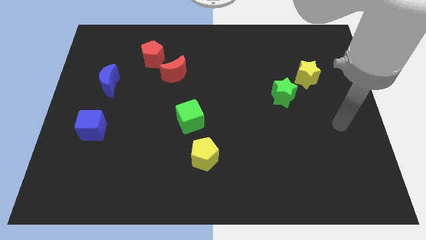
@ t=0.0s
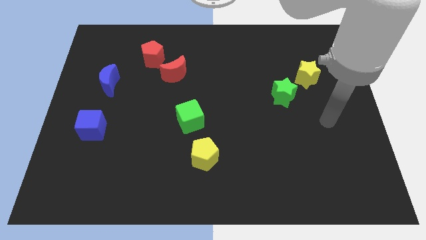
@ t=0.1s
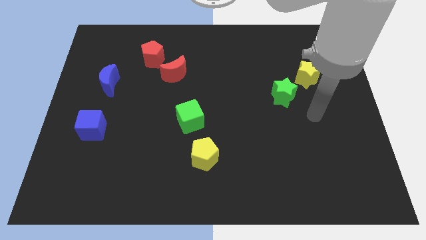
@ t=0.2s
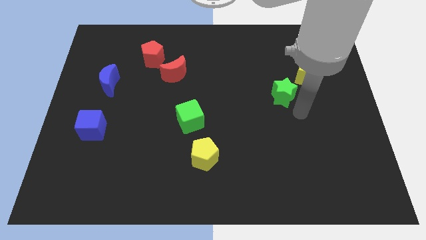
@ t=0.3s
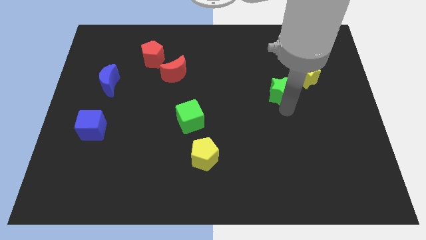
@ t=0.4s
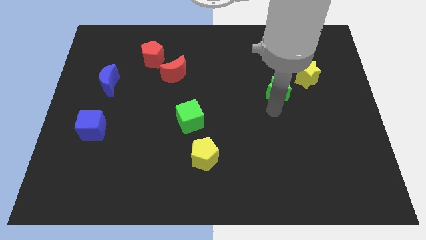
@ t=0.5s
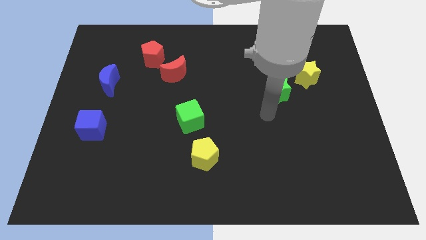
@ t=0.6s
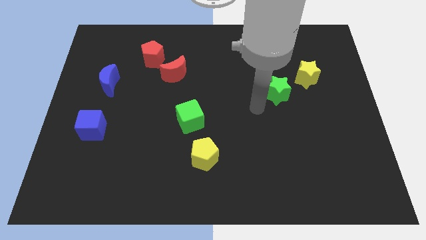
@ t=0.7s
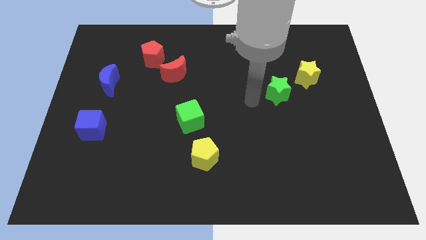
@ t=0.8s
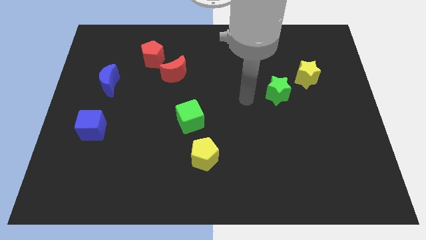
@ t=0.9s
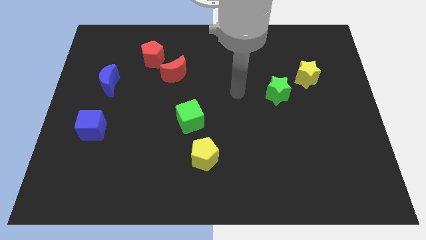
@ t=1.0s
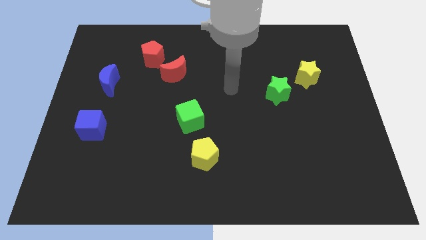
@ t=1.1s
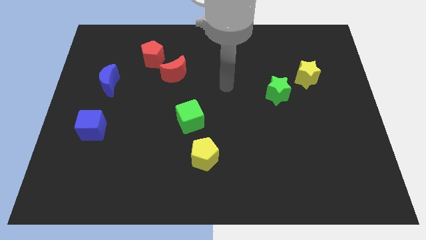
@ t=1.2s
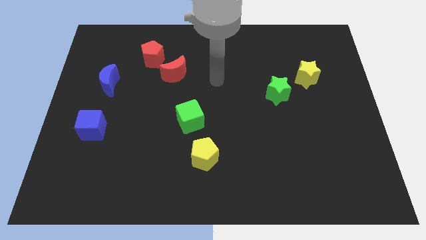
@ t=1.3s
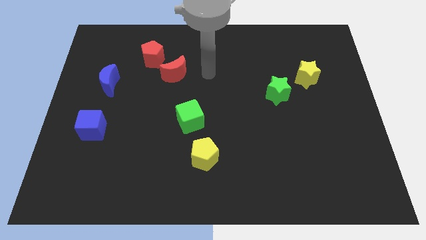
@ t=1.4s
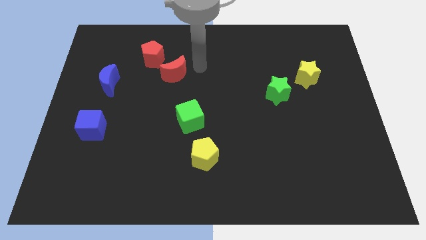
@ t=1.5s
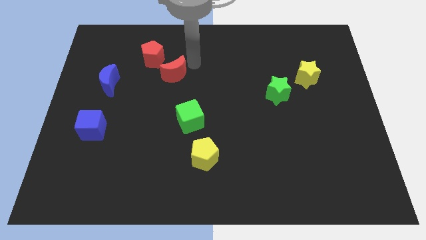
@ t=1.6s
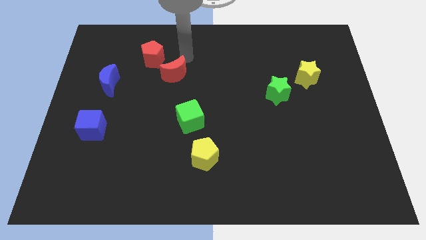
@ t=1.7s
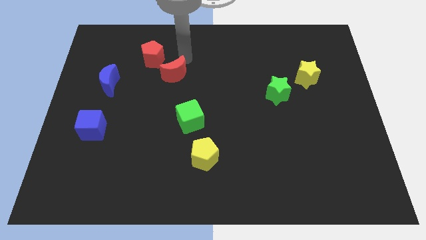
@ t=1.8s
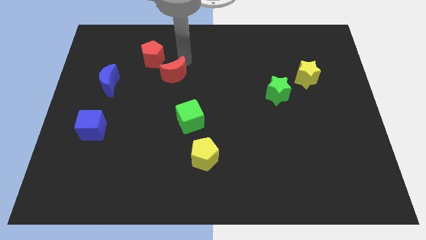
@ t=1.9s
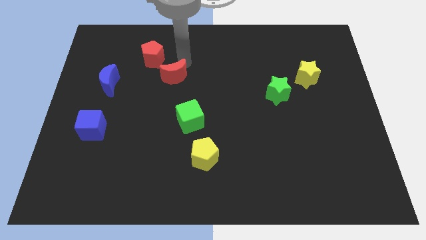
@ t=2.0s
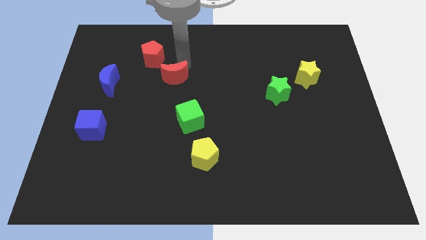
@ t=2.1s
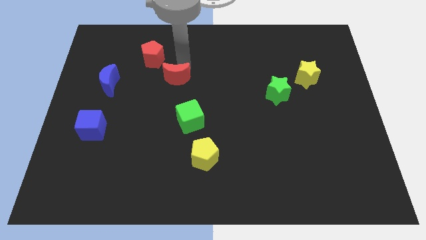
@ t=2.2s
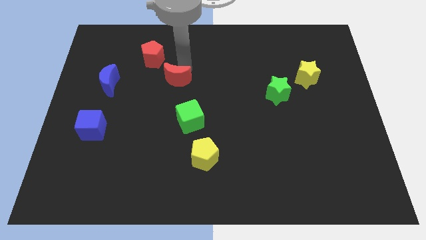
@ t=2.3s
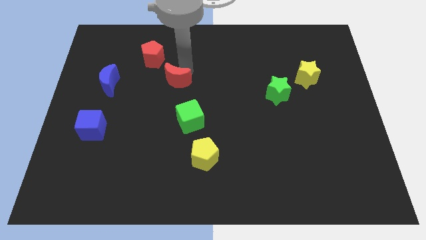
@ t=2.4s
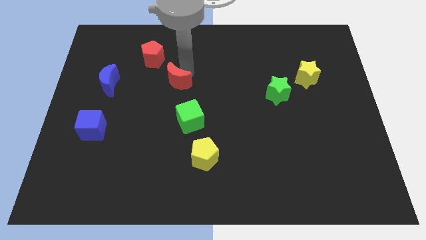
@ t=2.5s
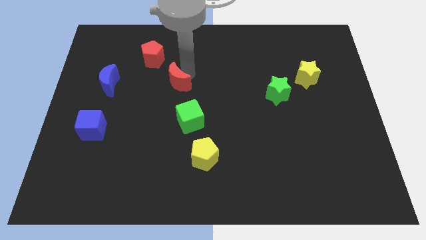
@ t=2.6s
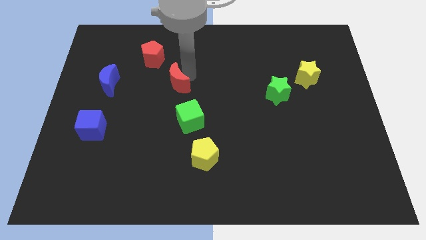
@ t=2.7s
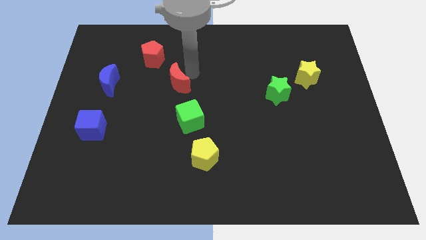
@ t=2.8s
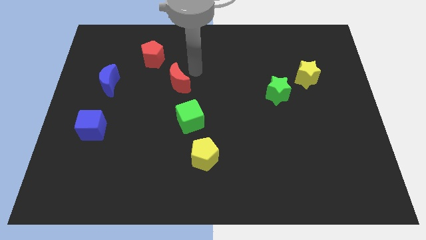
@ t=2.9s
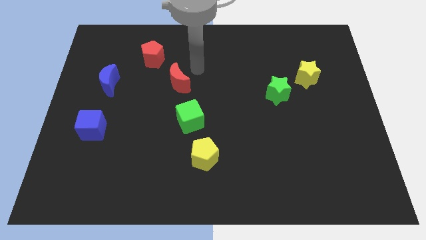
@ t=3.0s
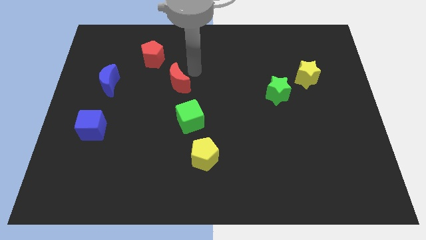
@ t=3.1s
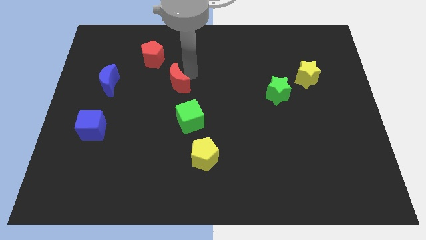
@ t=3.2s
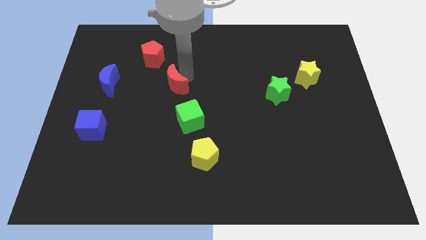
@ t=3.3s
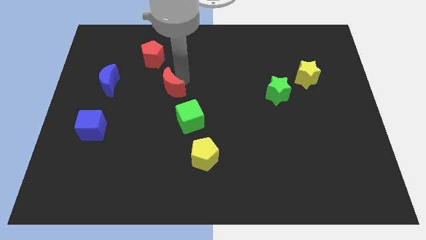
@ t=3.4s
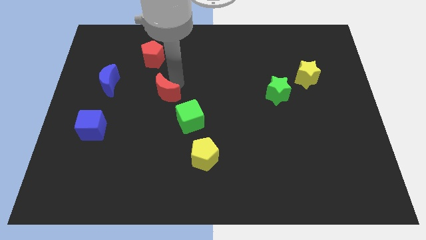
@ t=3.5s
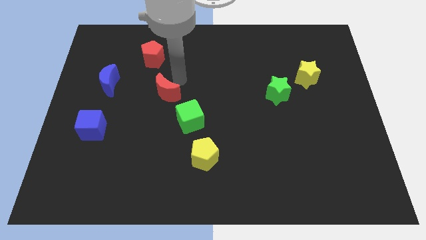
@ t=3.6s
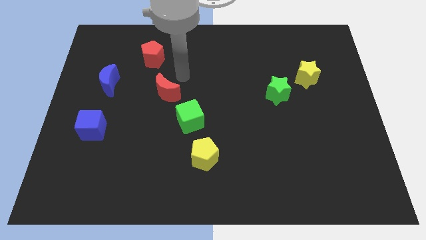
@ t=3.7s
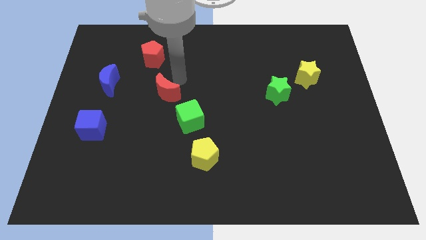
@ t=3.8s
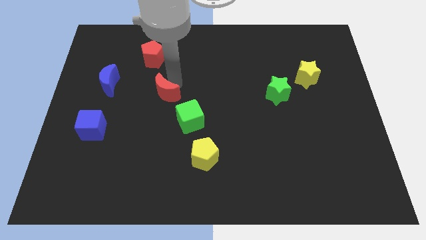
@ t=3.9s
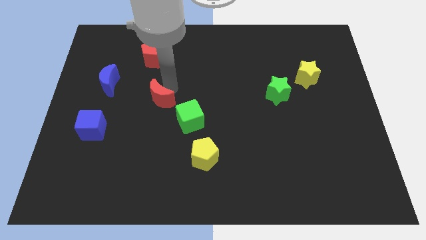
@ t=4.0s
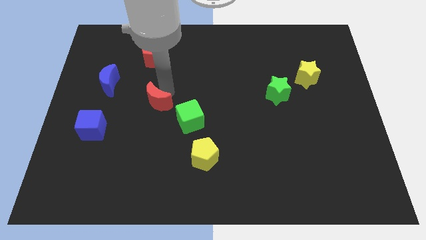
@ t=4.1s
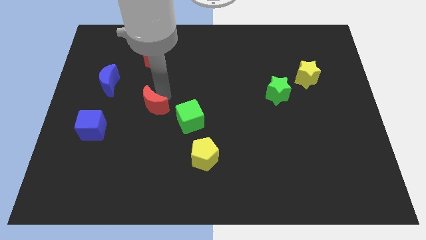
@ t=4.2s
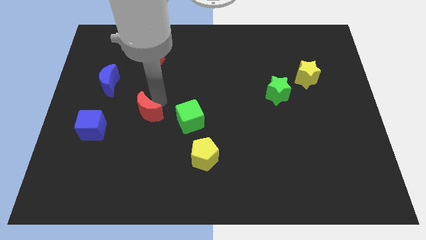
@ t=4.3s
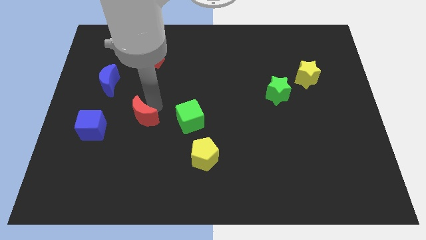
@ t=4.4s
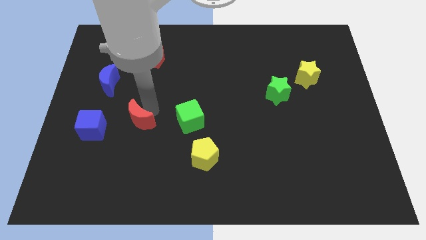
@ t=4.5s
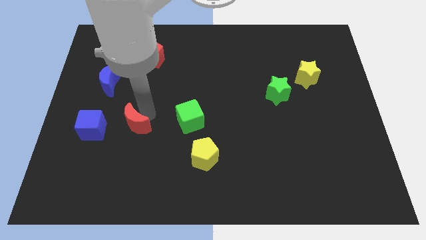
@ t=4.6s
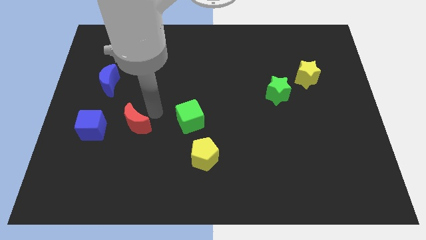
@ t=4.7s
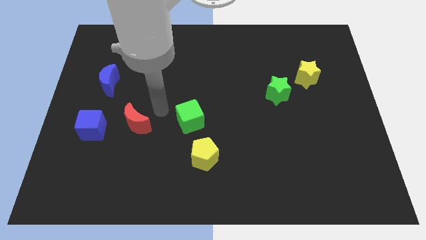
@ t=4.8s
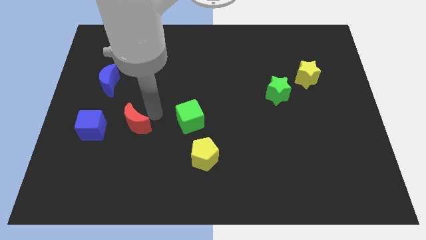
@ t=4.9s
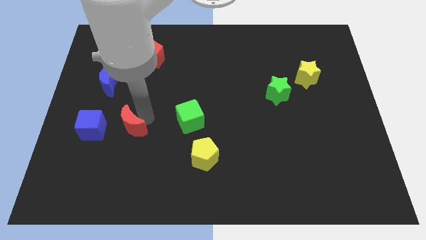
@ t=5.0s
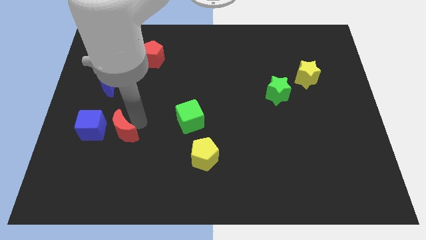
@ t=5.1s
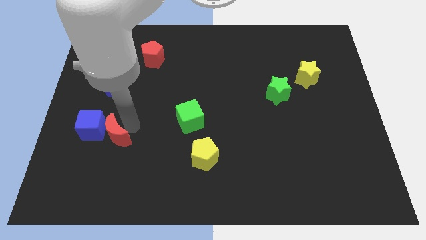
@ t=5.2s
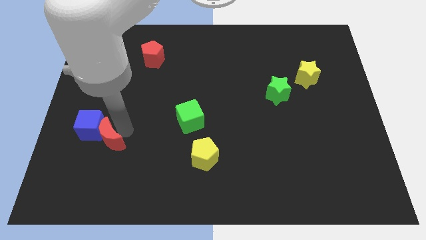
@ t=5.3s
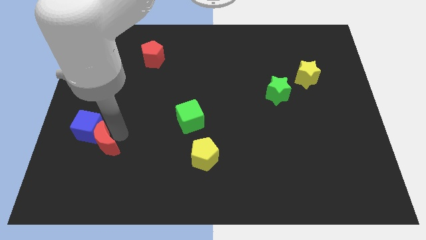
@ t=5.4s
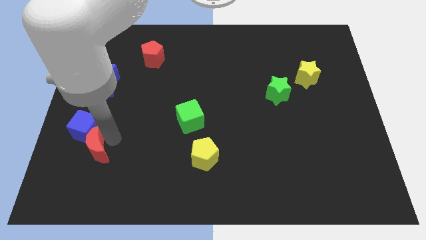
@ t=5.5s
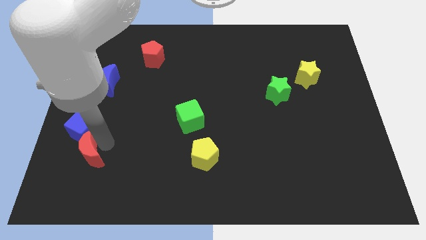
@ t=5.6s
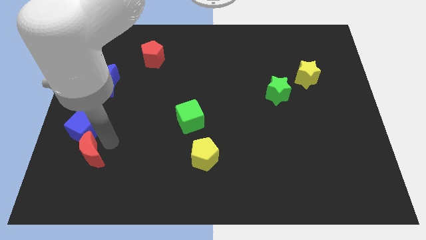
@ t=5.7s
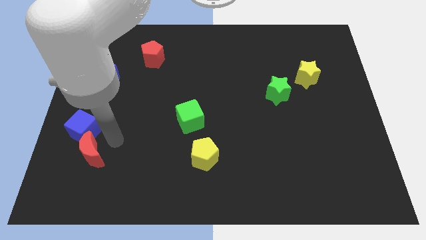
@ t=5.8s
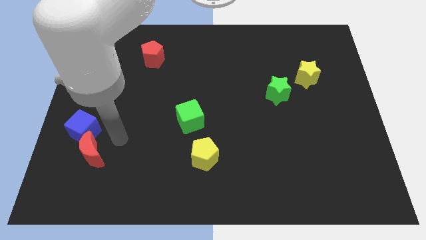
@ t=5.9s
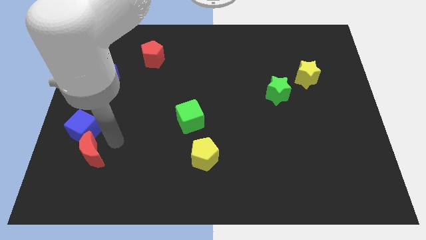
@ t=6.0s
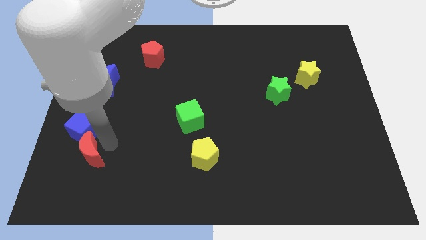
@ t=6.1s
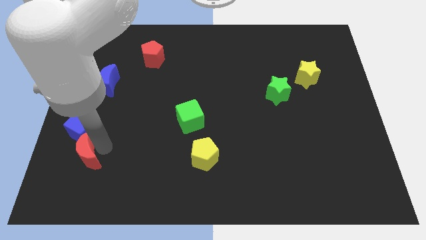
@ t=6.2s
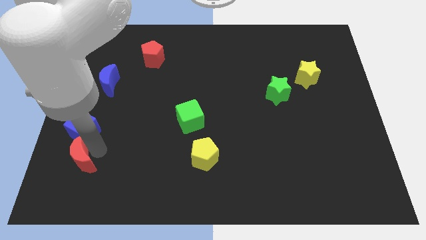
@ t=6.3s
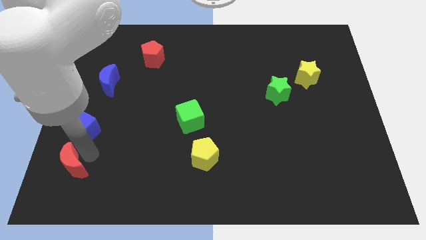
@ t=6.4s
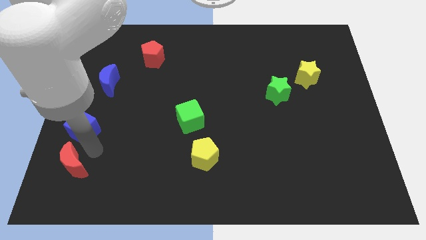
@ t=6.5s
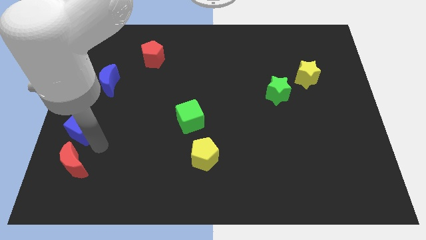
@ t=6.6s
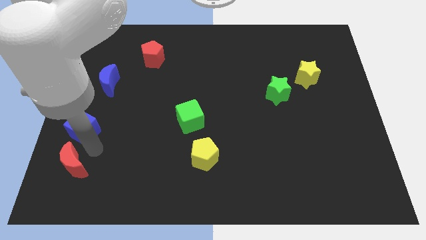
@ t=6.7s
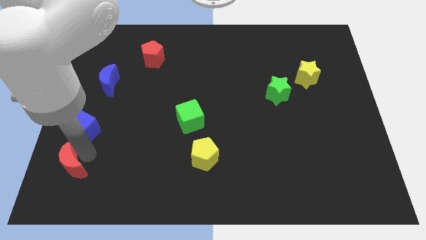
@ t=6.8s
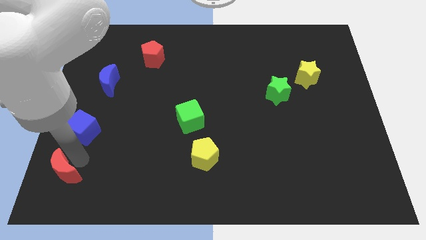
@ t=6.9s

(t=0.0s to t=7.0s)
put the red moon to the bottom left corner
